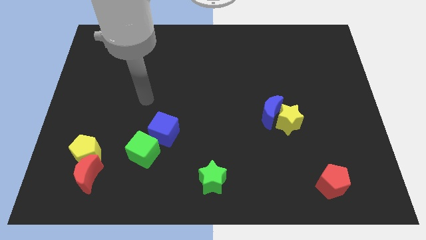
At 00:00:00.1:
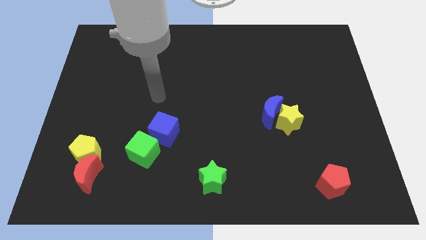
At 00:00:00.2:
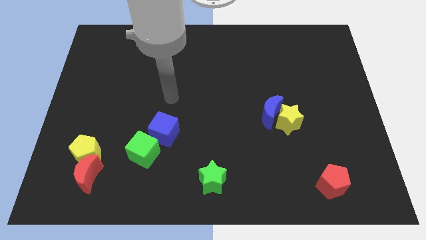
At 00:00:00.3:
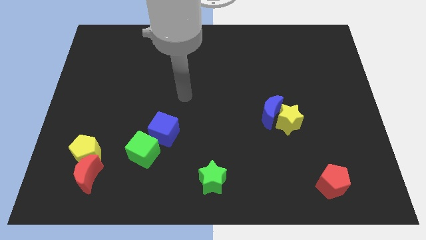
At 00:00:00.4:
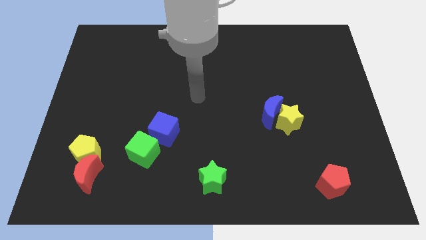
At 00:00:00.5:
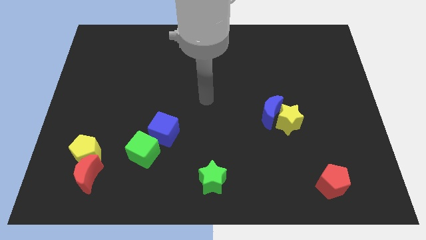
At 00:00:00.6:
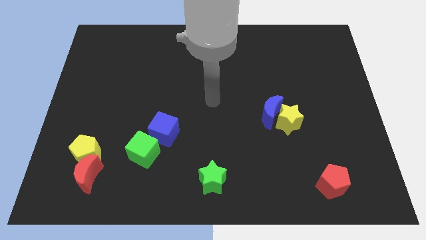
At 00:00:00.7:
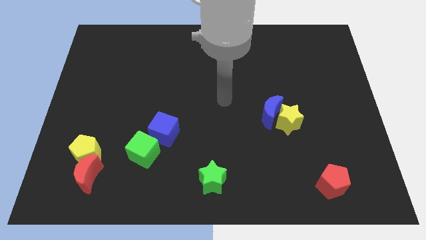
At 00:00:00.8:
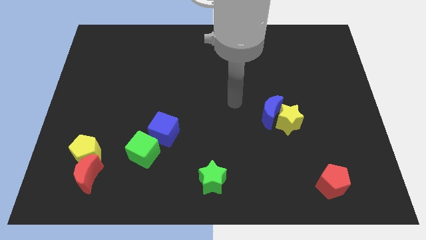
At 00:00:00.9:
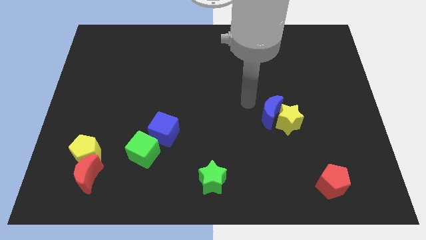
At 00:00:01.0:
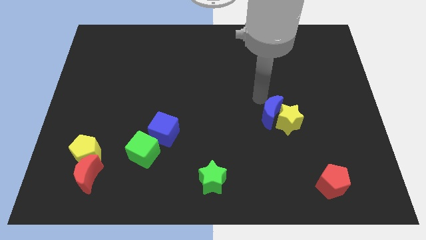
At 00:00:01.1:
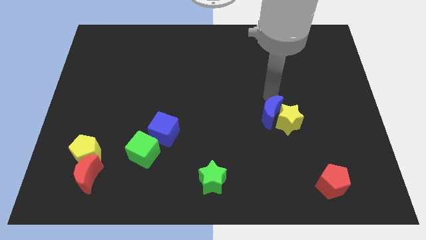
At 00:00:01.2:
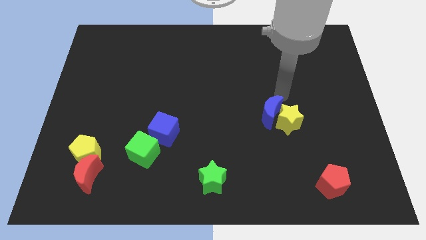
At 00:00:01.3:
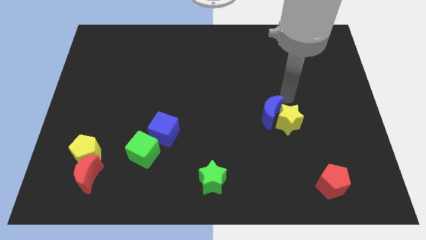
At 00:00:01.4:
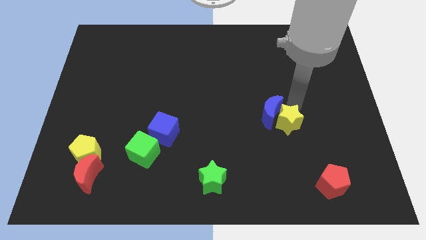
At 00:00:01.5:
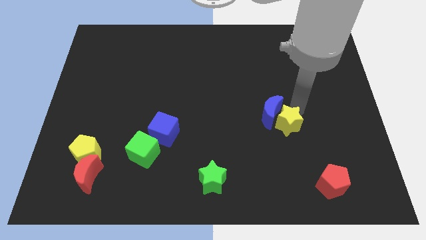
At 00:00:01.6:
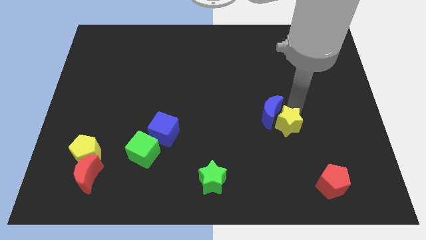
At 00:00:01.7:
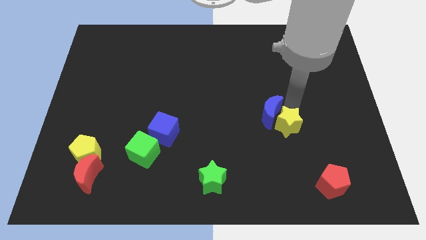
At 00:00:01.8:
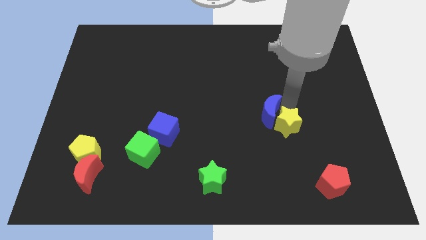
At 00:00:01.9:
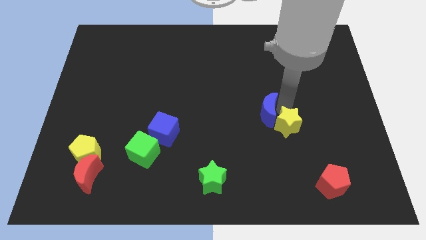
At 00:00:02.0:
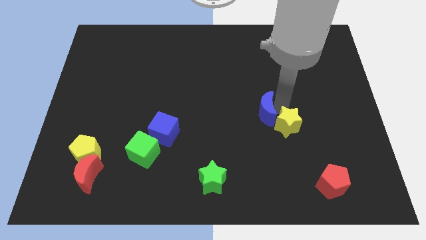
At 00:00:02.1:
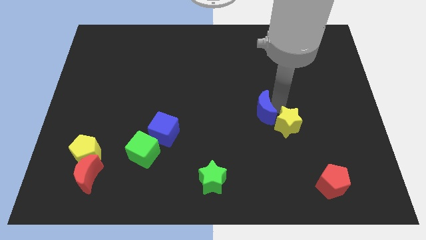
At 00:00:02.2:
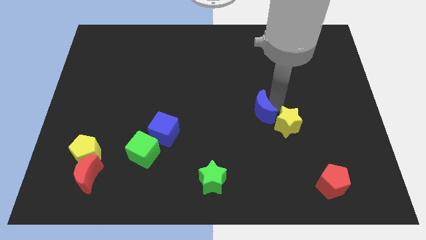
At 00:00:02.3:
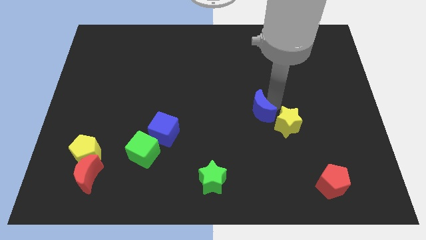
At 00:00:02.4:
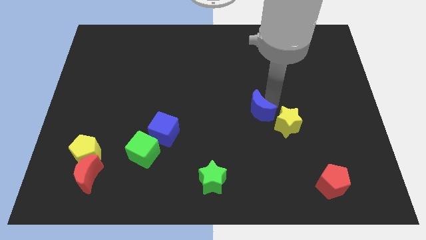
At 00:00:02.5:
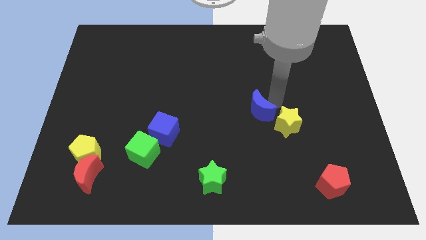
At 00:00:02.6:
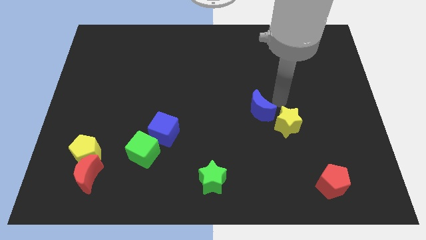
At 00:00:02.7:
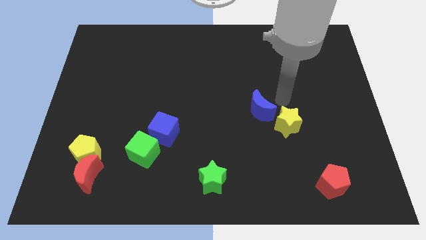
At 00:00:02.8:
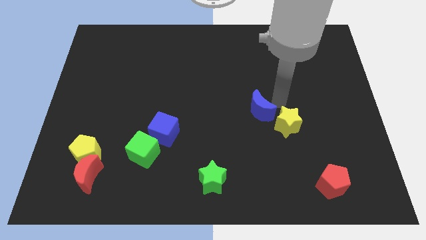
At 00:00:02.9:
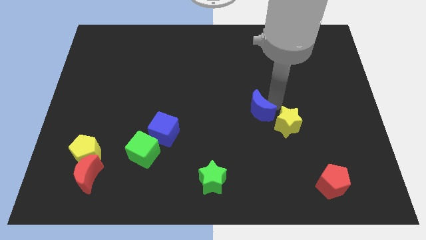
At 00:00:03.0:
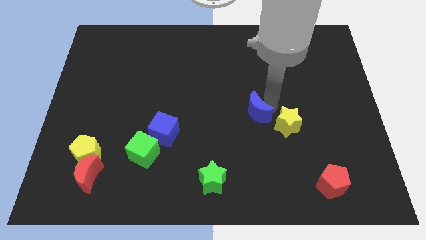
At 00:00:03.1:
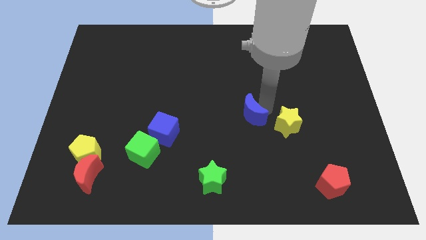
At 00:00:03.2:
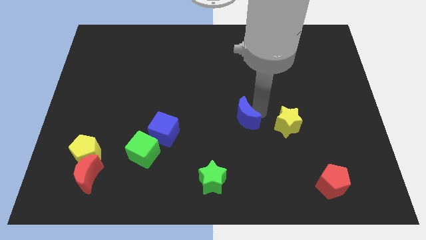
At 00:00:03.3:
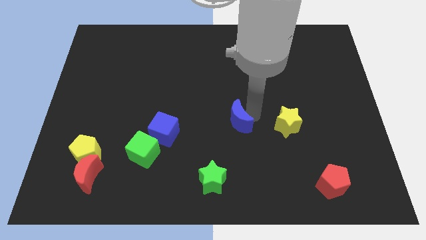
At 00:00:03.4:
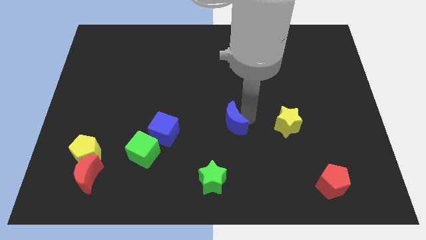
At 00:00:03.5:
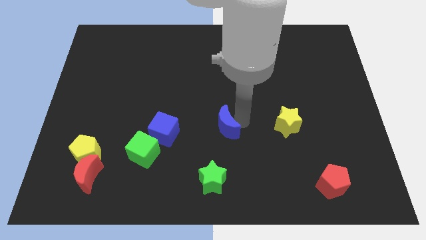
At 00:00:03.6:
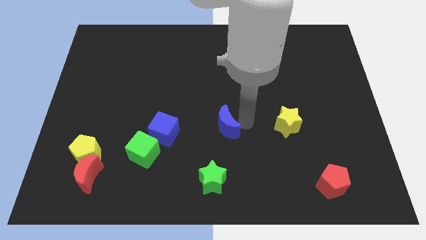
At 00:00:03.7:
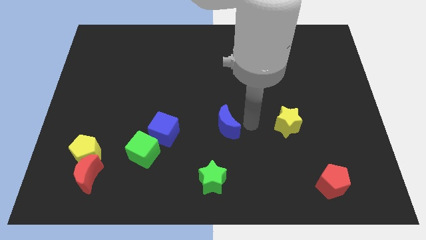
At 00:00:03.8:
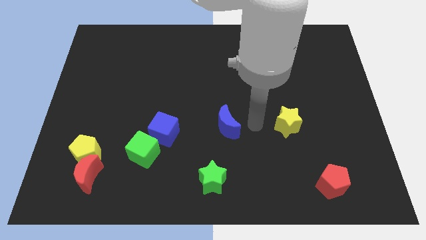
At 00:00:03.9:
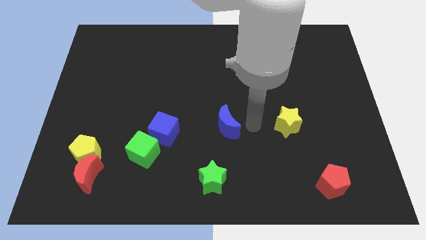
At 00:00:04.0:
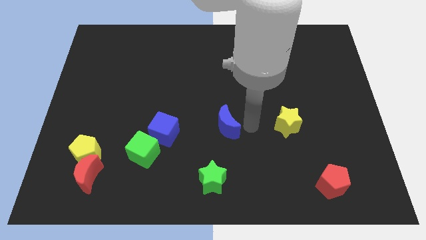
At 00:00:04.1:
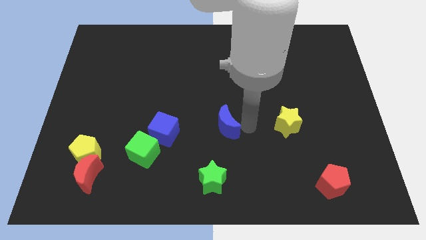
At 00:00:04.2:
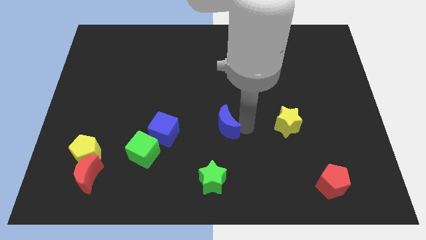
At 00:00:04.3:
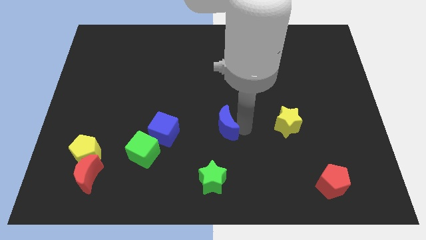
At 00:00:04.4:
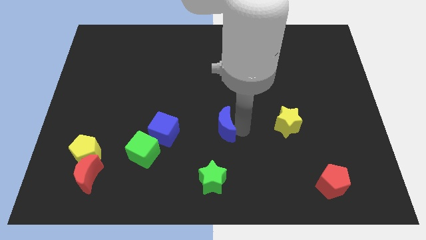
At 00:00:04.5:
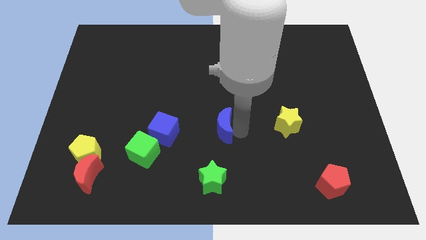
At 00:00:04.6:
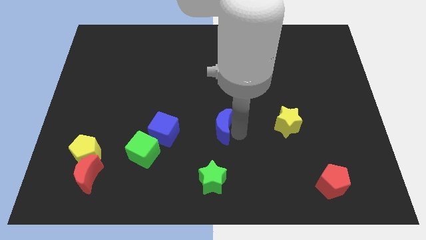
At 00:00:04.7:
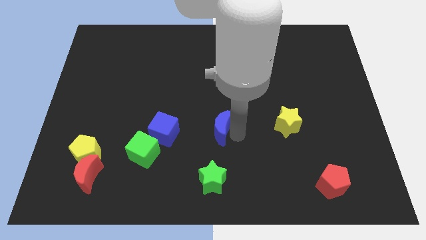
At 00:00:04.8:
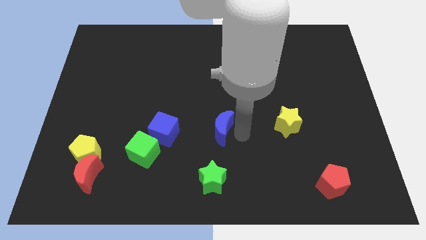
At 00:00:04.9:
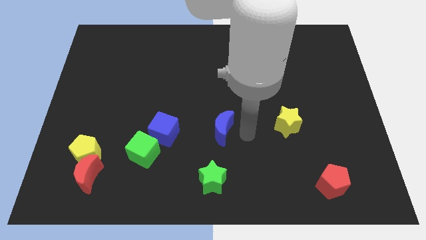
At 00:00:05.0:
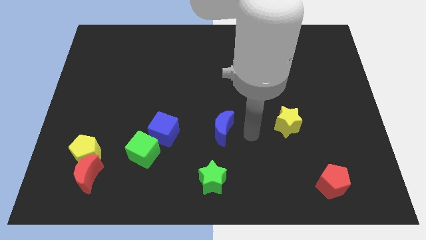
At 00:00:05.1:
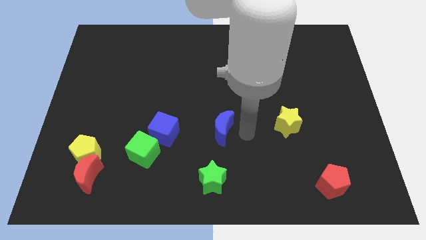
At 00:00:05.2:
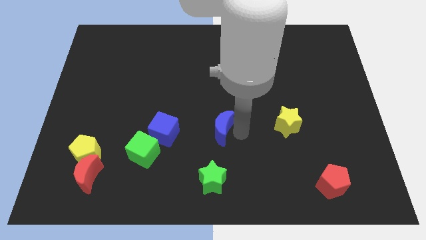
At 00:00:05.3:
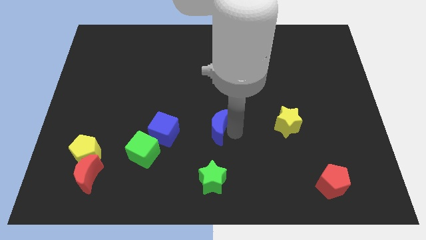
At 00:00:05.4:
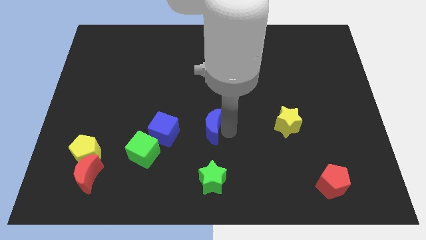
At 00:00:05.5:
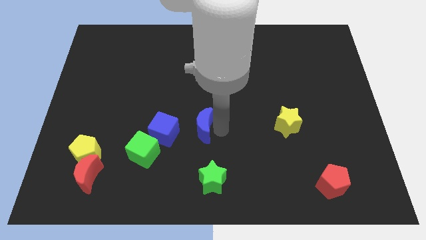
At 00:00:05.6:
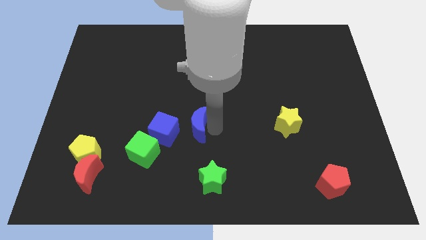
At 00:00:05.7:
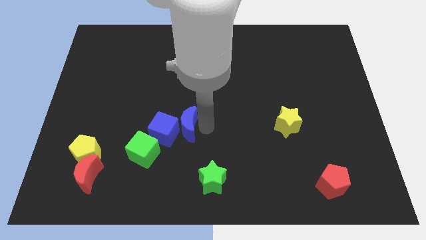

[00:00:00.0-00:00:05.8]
push the blue moon to the blue cube

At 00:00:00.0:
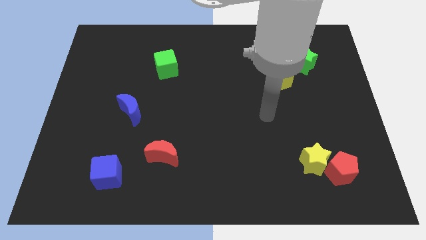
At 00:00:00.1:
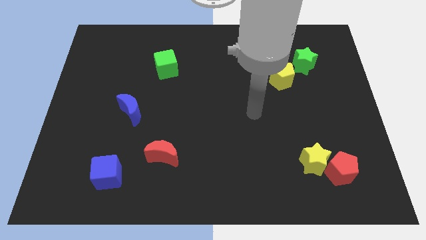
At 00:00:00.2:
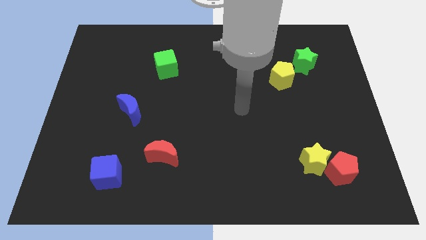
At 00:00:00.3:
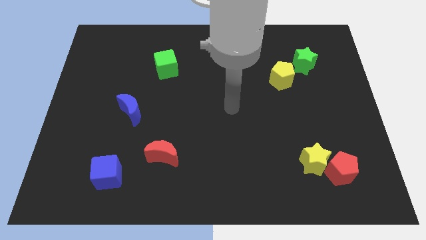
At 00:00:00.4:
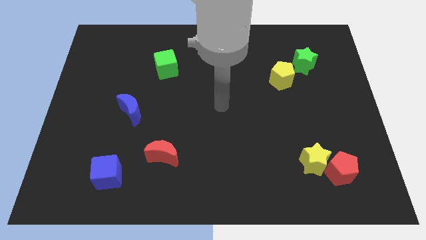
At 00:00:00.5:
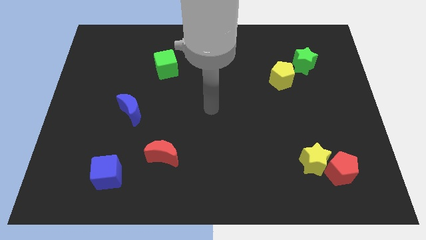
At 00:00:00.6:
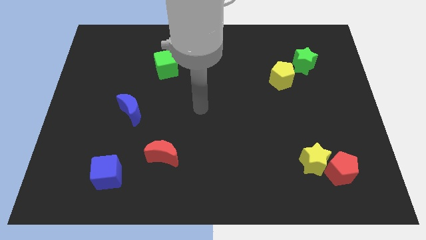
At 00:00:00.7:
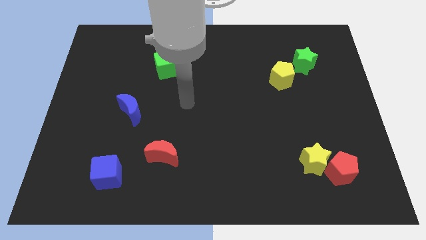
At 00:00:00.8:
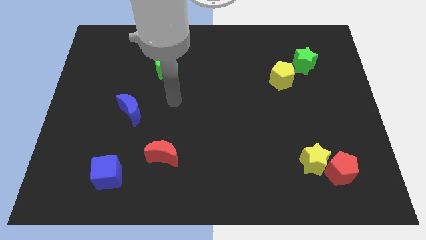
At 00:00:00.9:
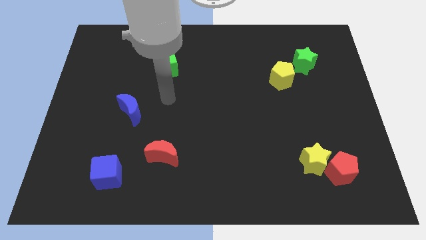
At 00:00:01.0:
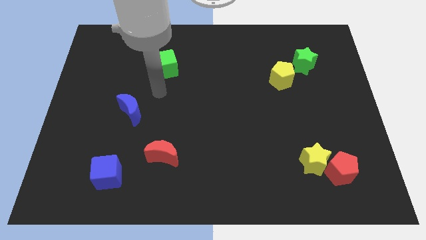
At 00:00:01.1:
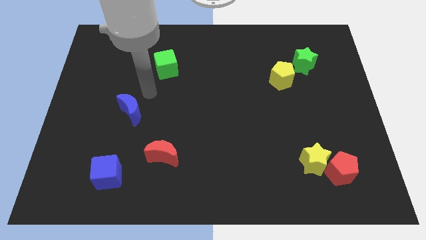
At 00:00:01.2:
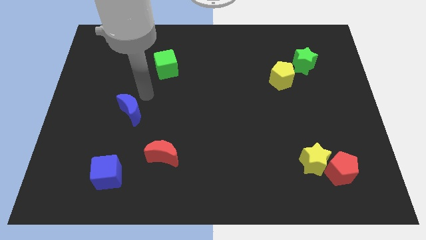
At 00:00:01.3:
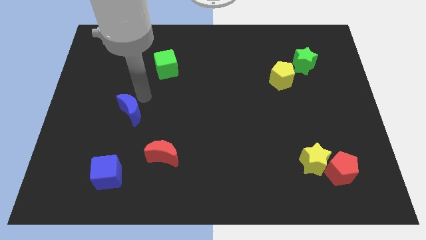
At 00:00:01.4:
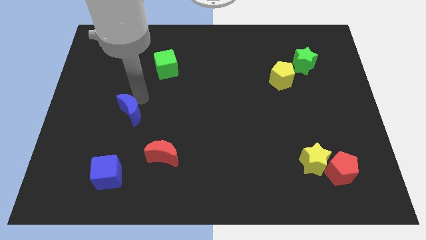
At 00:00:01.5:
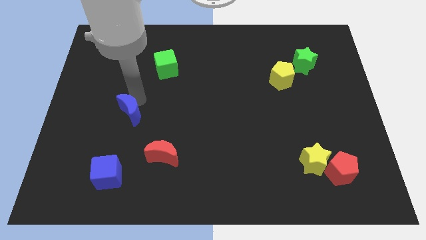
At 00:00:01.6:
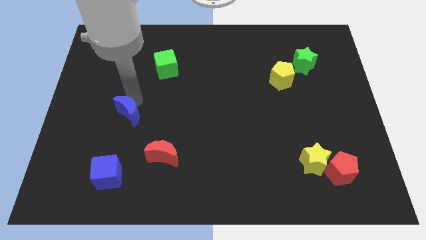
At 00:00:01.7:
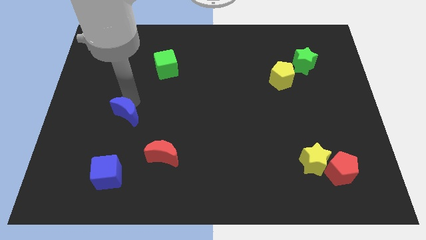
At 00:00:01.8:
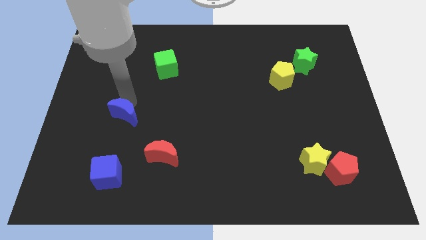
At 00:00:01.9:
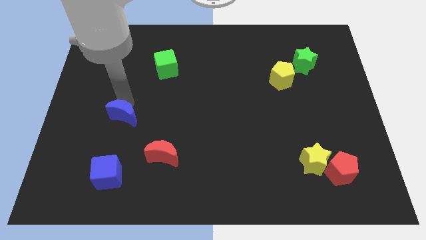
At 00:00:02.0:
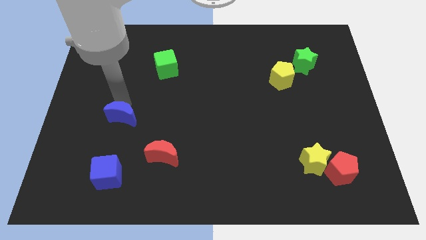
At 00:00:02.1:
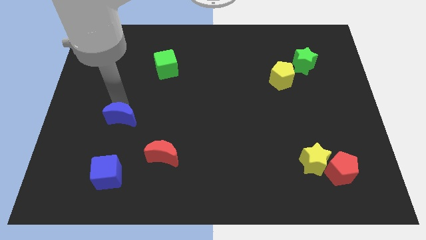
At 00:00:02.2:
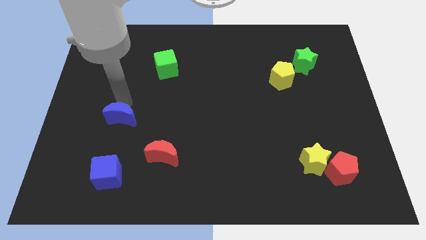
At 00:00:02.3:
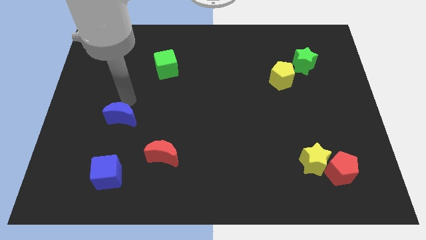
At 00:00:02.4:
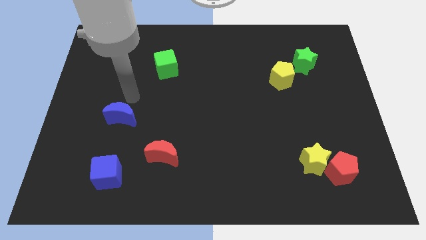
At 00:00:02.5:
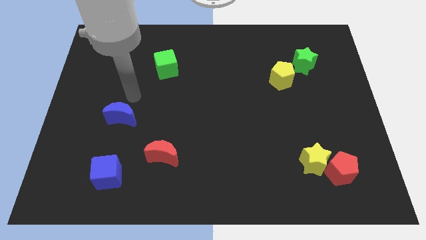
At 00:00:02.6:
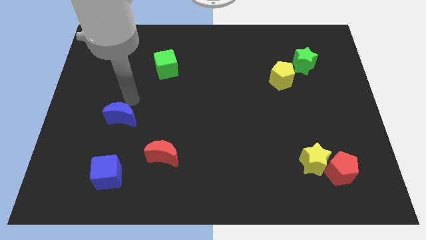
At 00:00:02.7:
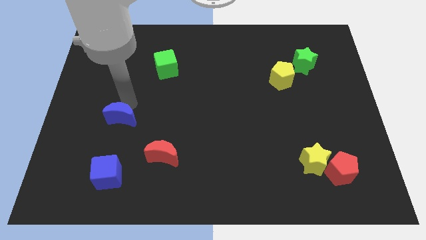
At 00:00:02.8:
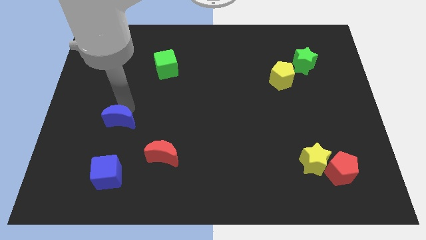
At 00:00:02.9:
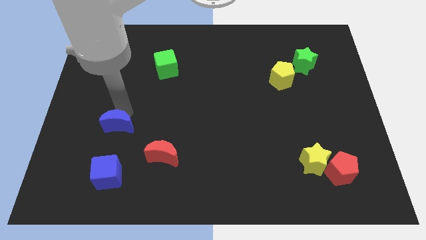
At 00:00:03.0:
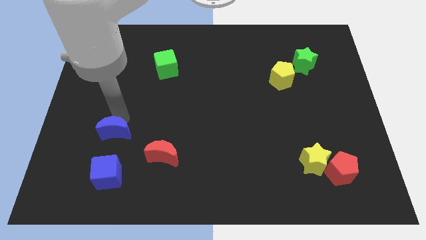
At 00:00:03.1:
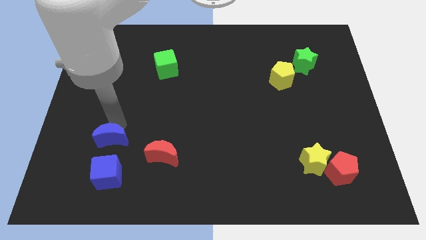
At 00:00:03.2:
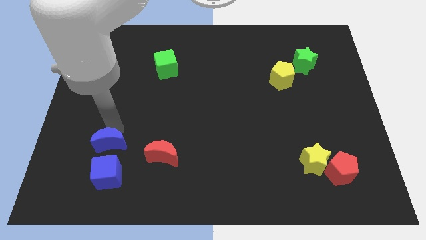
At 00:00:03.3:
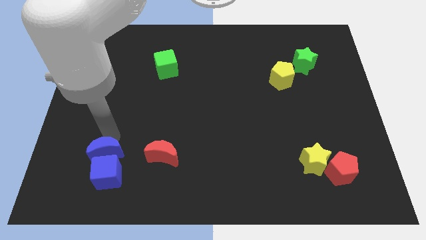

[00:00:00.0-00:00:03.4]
move the blue moon to the blue cube
